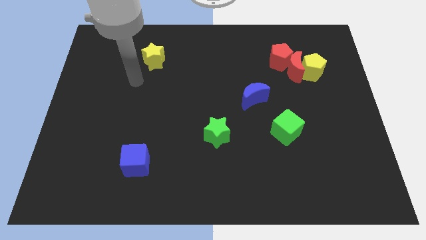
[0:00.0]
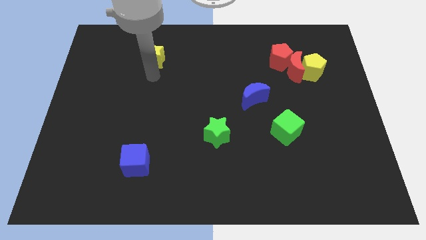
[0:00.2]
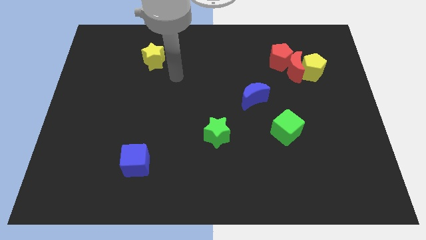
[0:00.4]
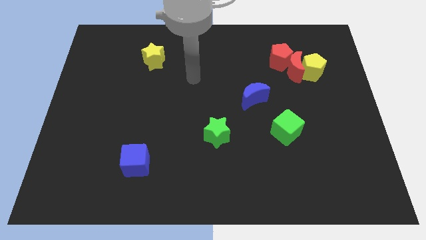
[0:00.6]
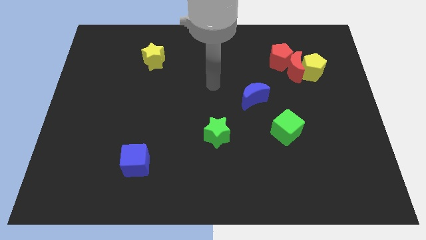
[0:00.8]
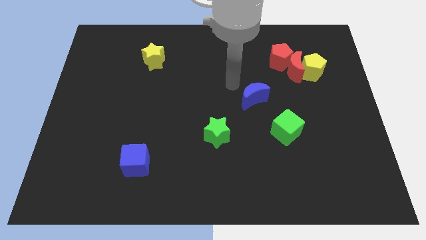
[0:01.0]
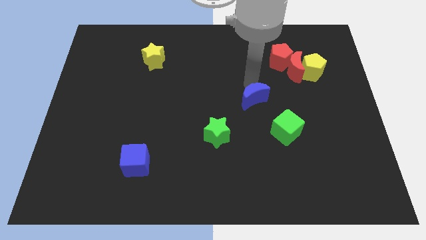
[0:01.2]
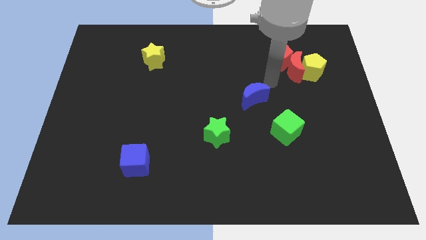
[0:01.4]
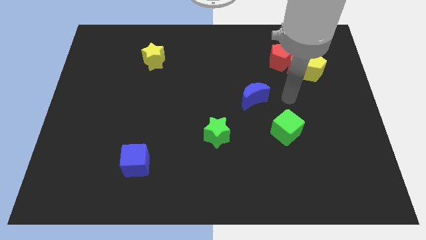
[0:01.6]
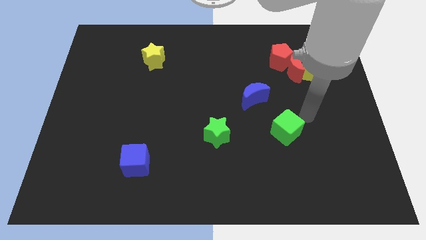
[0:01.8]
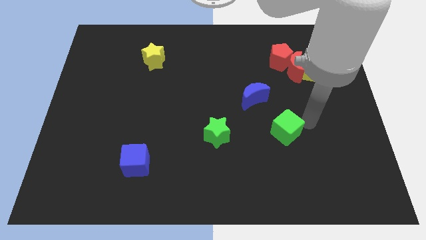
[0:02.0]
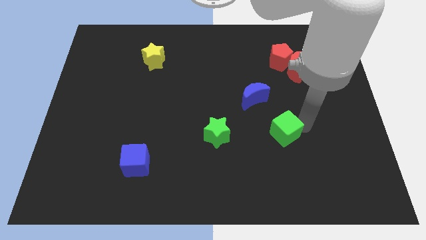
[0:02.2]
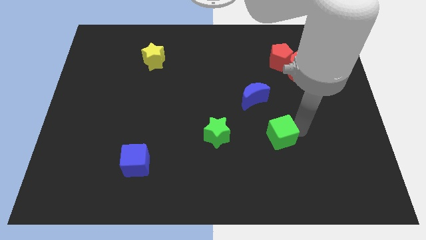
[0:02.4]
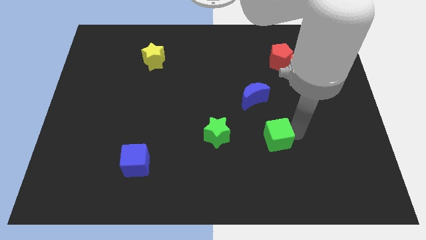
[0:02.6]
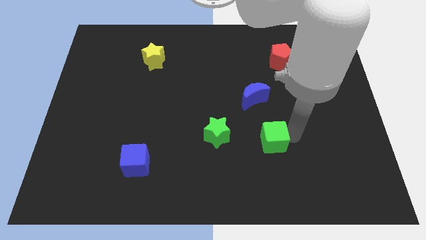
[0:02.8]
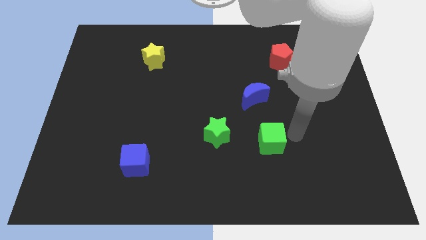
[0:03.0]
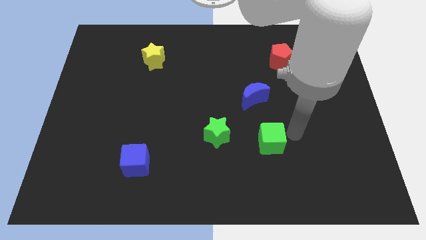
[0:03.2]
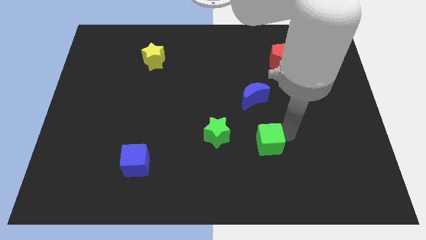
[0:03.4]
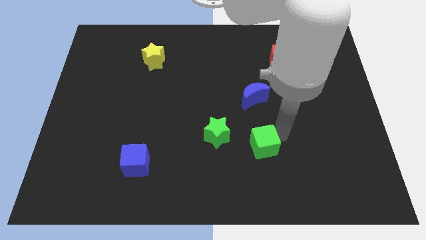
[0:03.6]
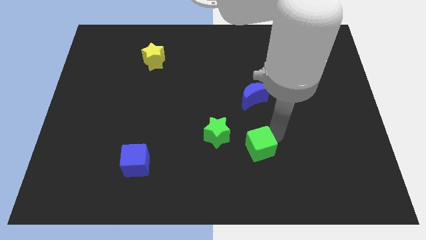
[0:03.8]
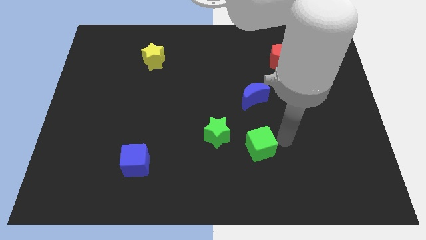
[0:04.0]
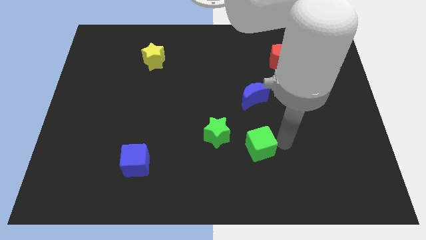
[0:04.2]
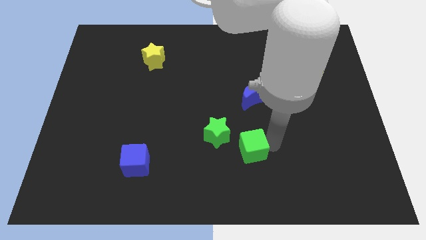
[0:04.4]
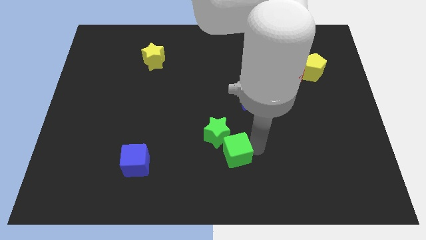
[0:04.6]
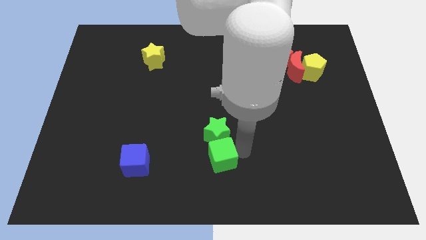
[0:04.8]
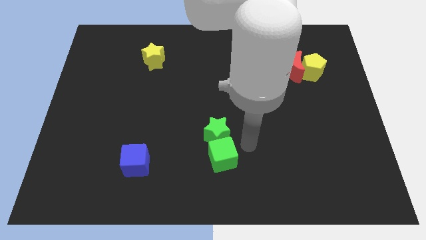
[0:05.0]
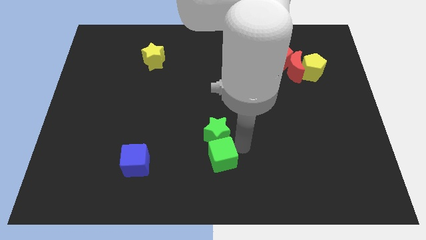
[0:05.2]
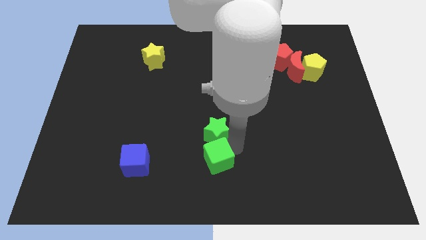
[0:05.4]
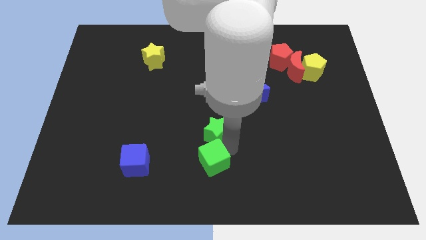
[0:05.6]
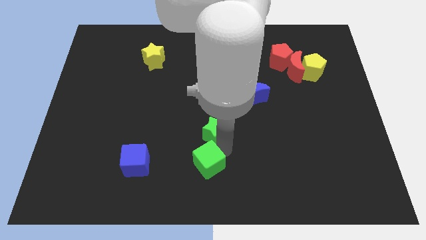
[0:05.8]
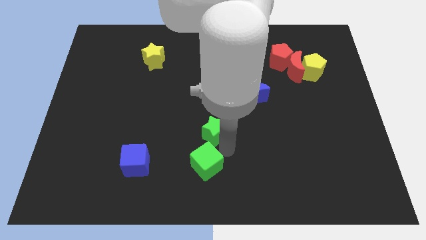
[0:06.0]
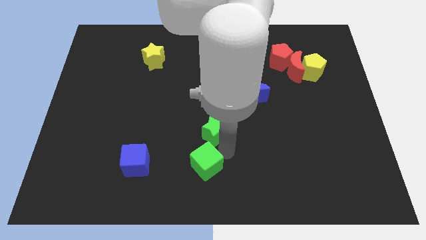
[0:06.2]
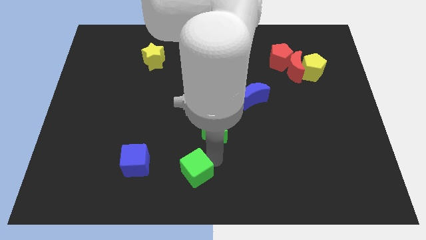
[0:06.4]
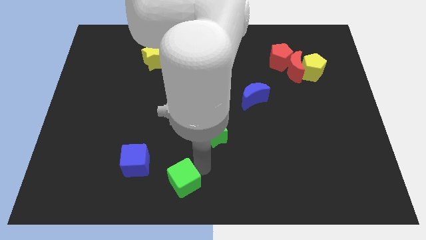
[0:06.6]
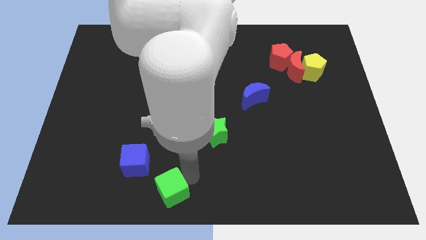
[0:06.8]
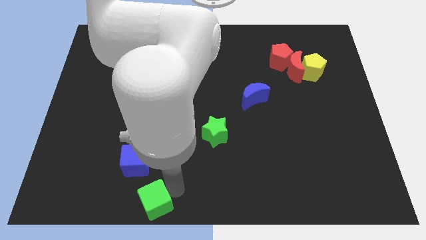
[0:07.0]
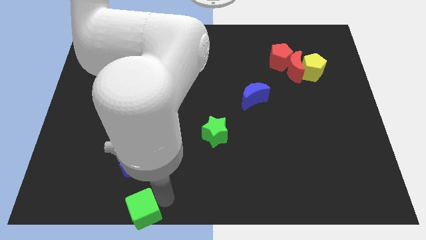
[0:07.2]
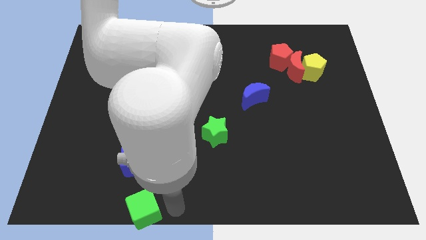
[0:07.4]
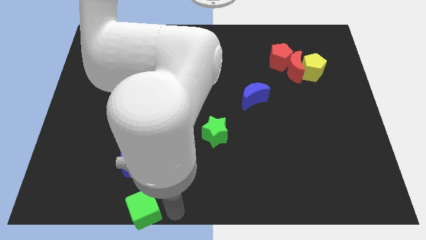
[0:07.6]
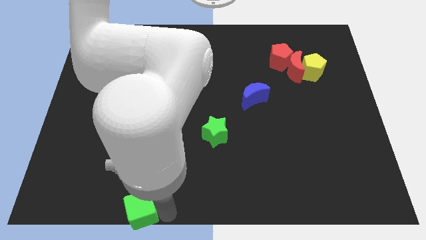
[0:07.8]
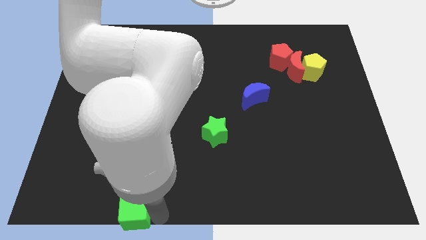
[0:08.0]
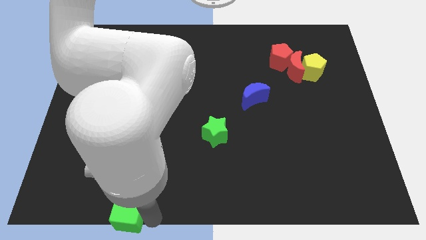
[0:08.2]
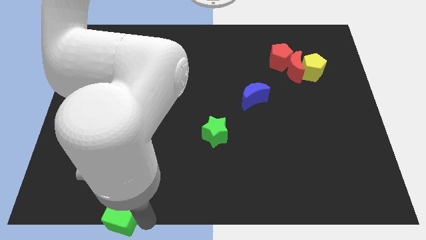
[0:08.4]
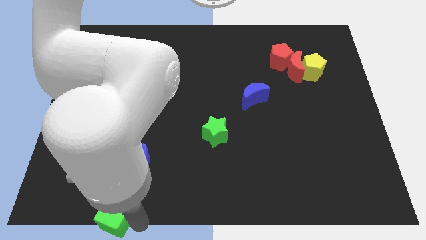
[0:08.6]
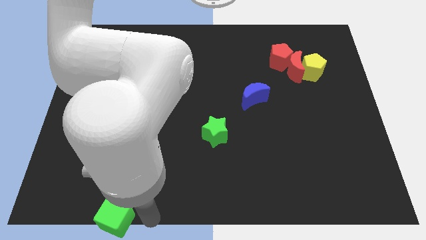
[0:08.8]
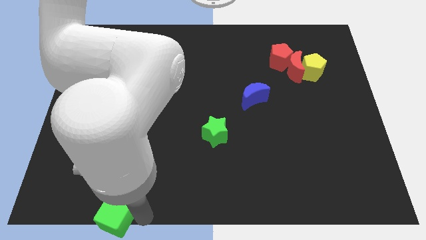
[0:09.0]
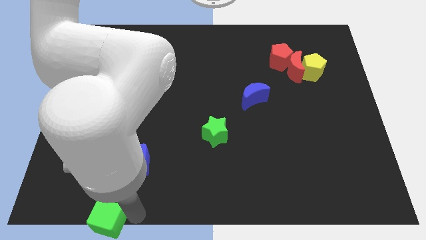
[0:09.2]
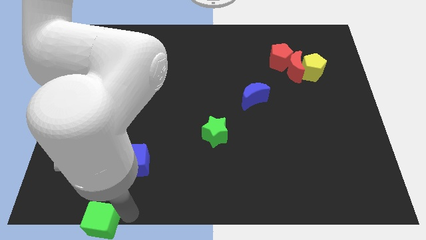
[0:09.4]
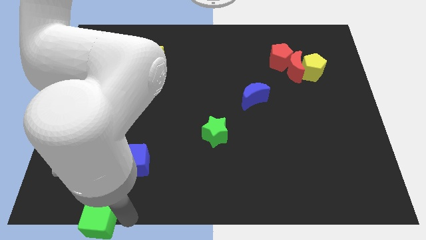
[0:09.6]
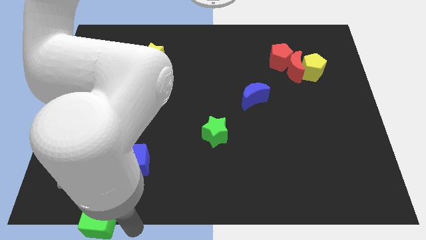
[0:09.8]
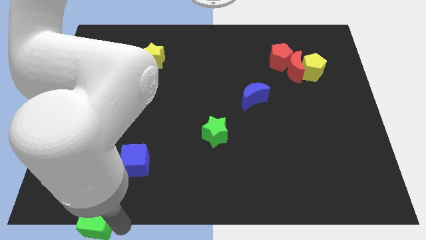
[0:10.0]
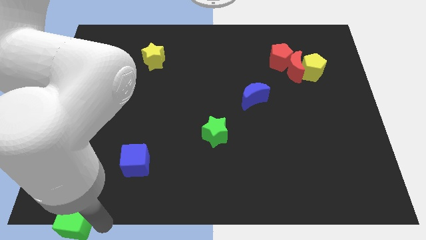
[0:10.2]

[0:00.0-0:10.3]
put the green cube to the lower left corner

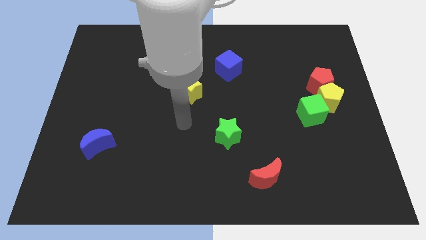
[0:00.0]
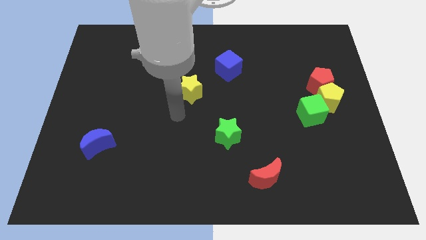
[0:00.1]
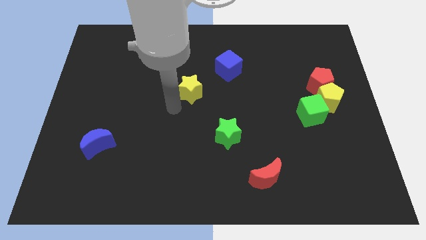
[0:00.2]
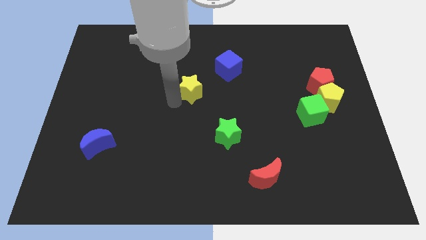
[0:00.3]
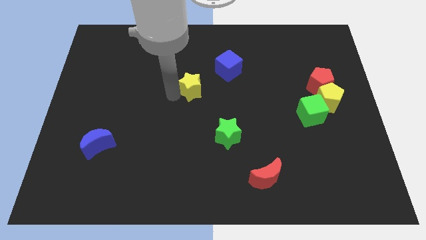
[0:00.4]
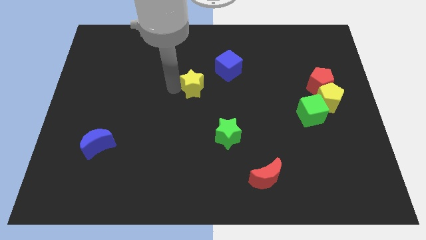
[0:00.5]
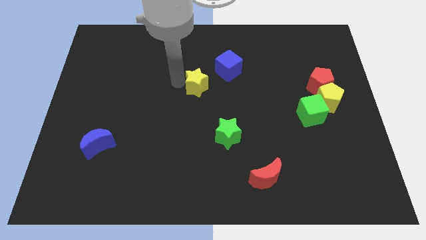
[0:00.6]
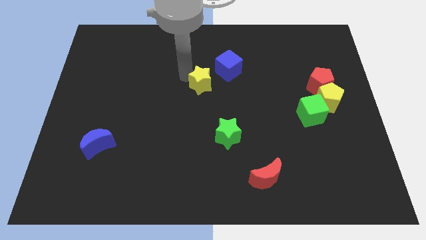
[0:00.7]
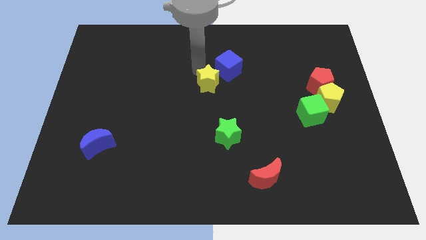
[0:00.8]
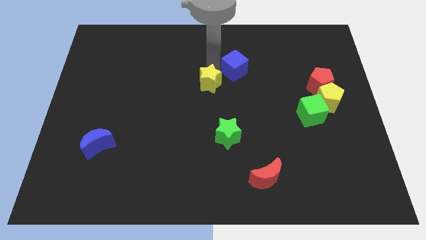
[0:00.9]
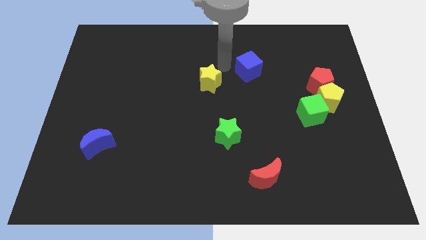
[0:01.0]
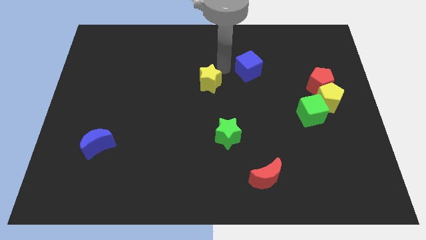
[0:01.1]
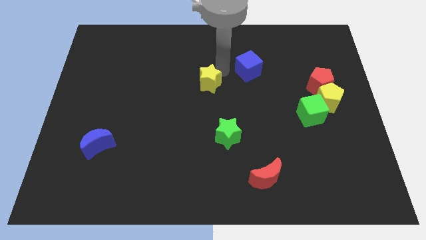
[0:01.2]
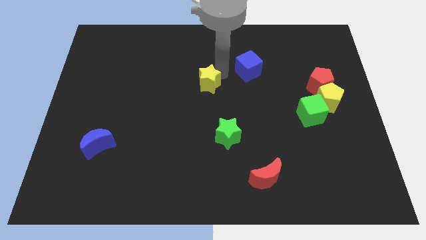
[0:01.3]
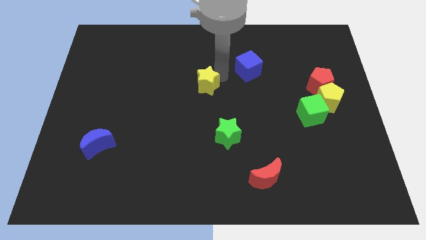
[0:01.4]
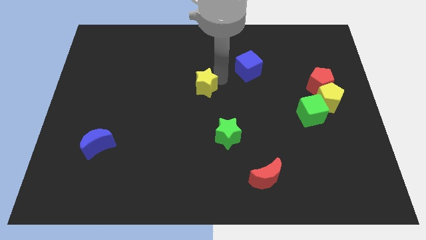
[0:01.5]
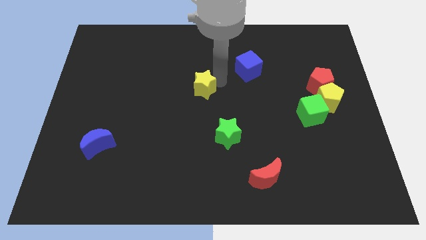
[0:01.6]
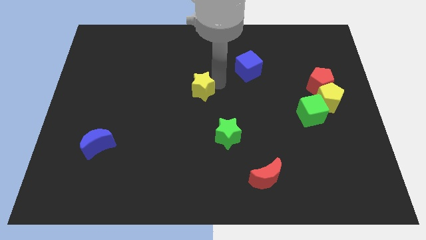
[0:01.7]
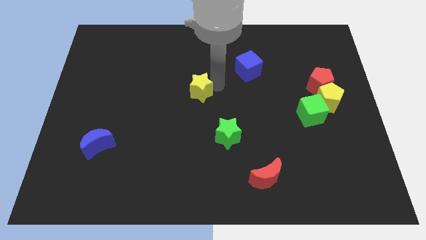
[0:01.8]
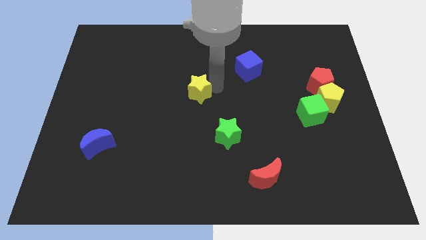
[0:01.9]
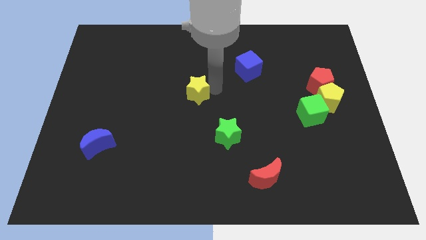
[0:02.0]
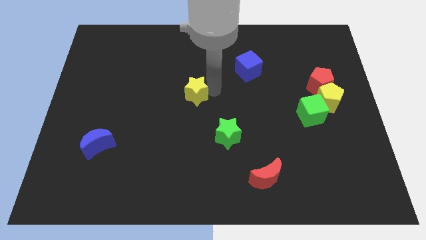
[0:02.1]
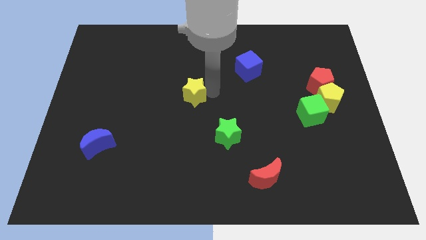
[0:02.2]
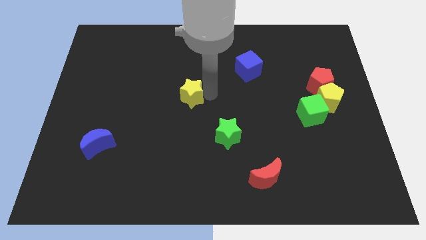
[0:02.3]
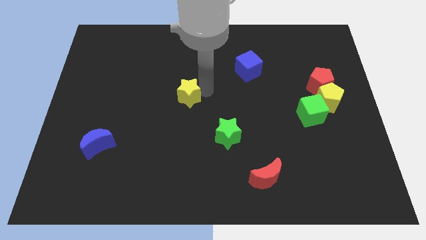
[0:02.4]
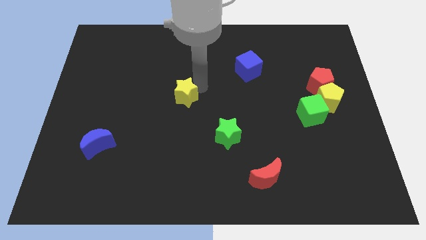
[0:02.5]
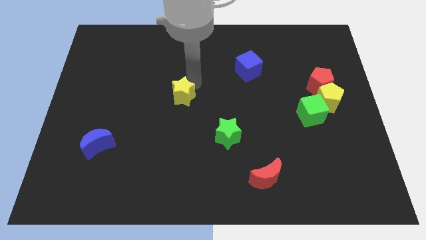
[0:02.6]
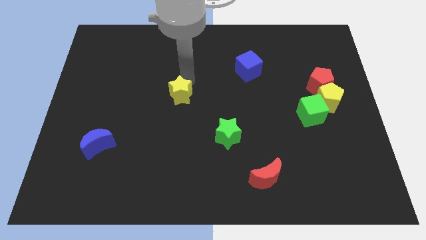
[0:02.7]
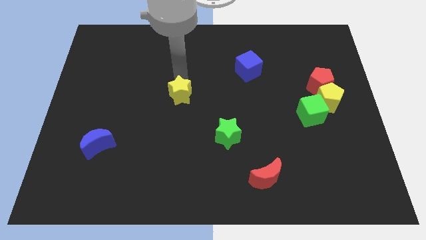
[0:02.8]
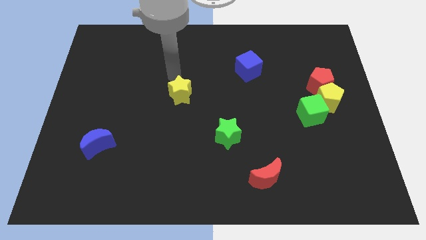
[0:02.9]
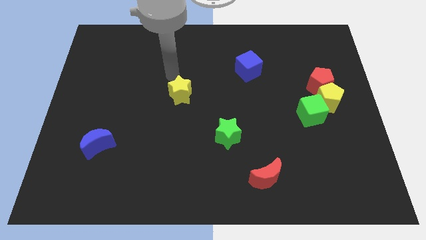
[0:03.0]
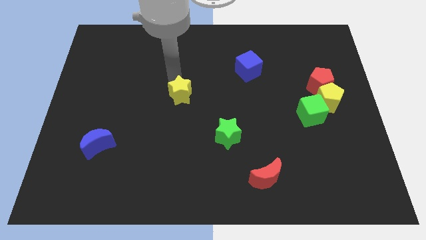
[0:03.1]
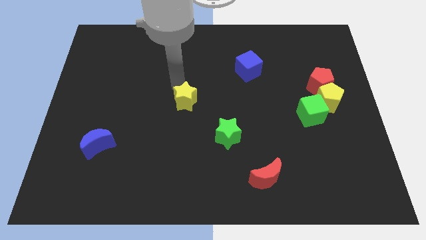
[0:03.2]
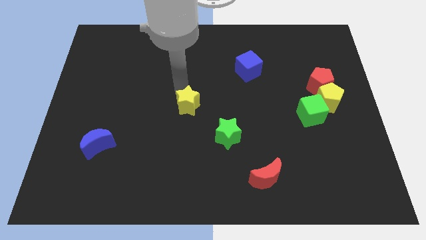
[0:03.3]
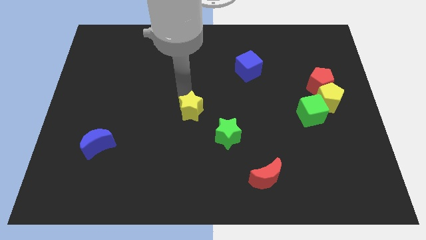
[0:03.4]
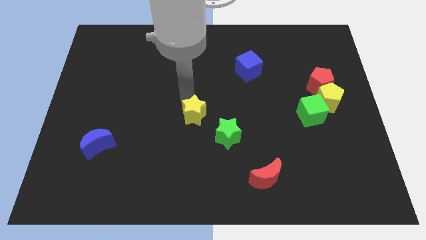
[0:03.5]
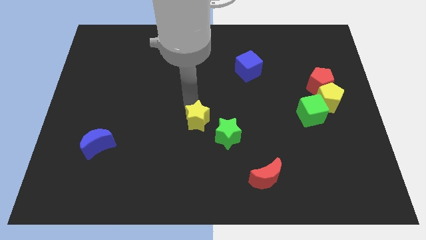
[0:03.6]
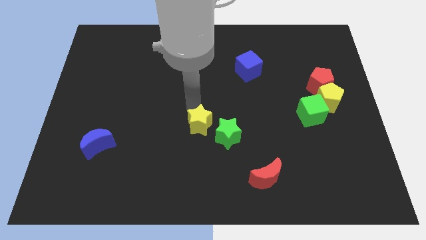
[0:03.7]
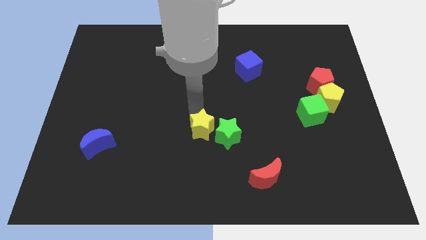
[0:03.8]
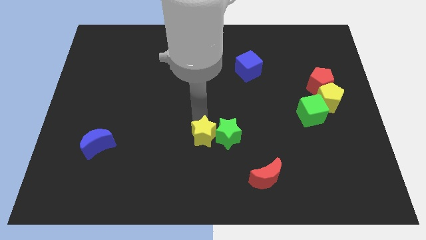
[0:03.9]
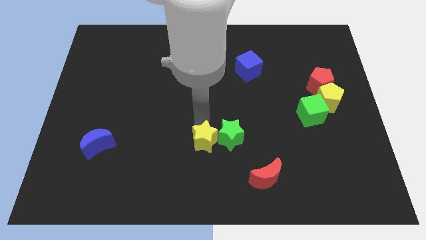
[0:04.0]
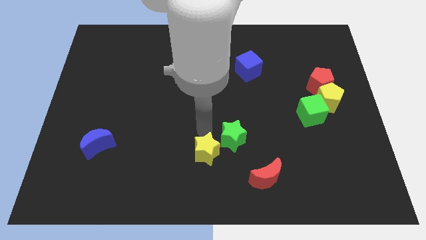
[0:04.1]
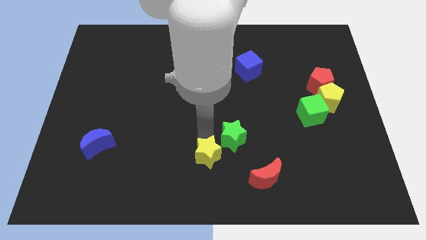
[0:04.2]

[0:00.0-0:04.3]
put the yellow star to the bottom side
